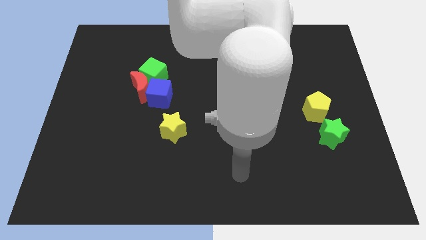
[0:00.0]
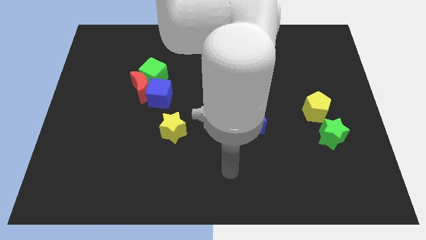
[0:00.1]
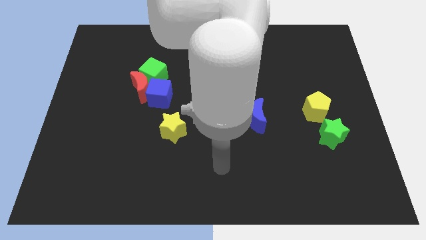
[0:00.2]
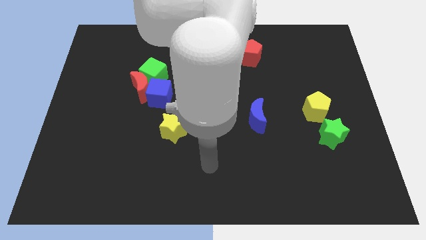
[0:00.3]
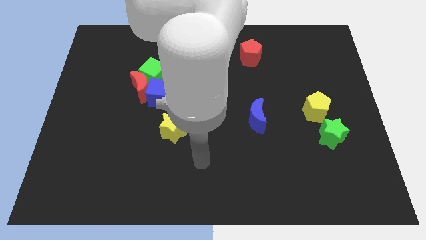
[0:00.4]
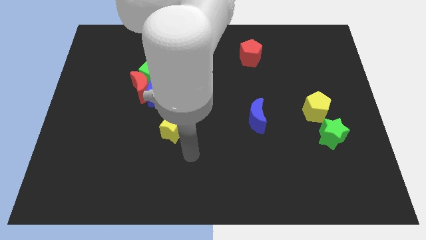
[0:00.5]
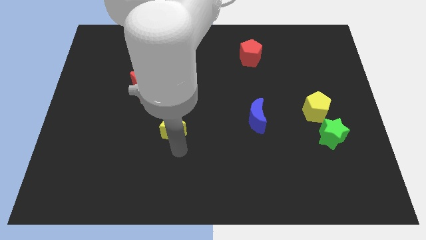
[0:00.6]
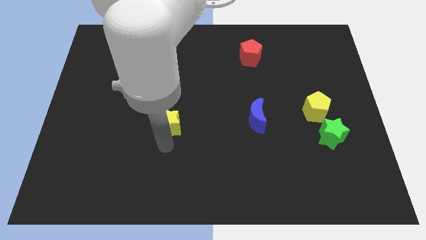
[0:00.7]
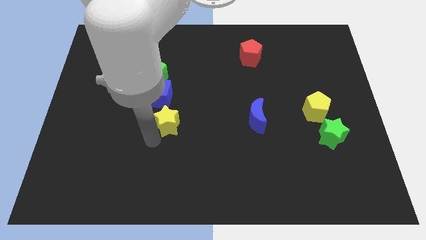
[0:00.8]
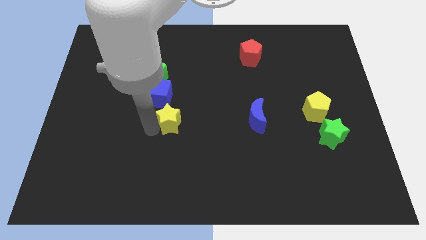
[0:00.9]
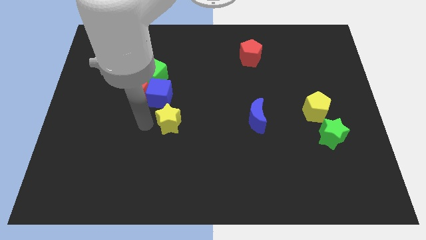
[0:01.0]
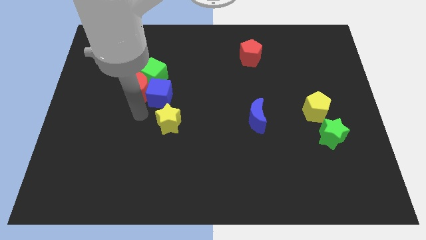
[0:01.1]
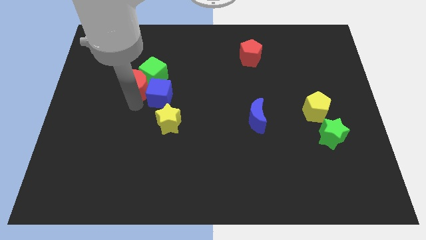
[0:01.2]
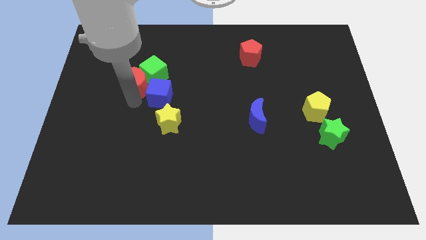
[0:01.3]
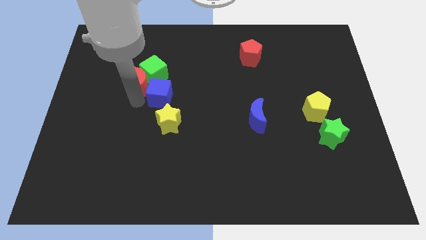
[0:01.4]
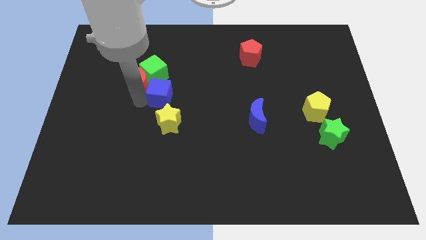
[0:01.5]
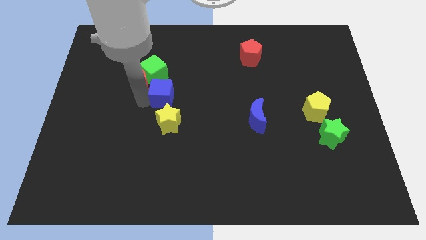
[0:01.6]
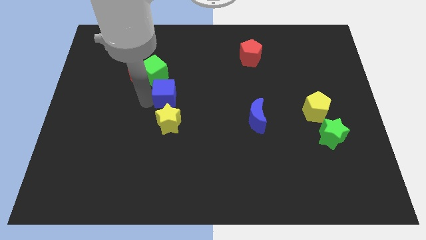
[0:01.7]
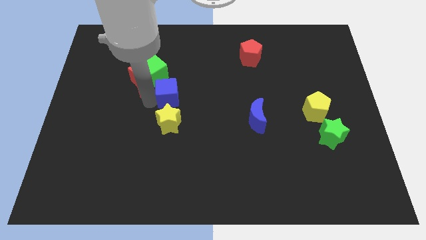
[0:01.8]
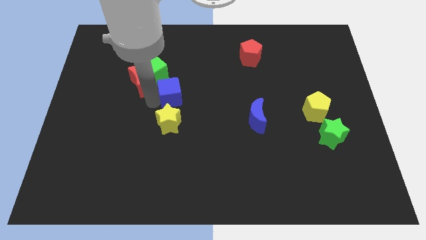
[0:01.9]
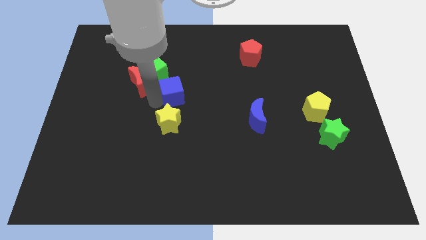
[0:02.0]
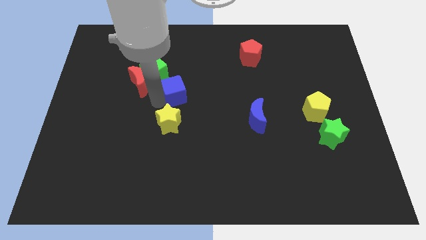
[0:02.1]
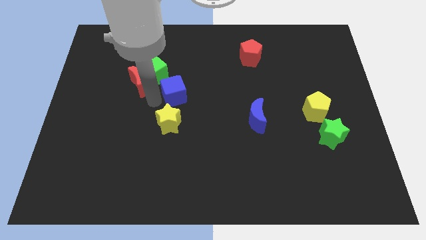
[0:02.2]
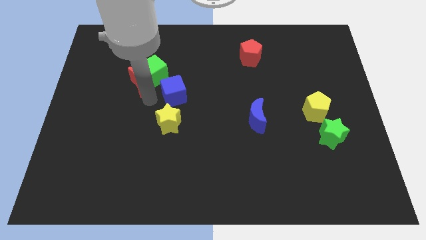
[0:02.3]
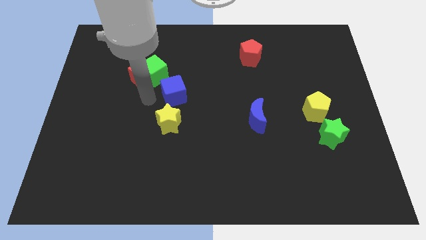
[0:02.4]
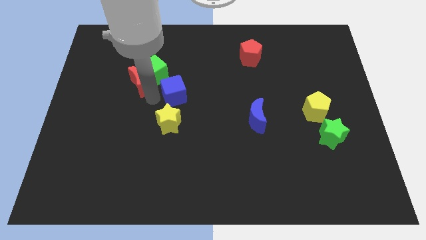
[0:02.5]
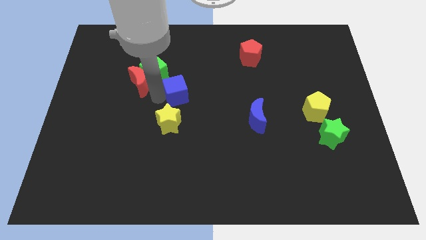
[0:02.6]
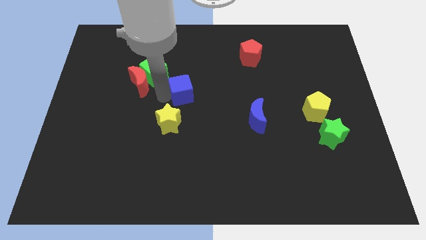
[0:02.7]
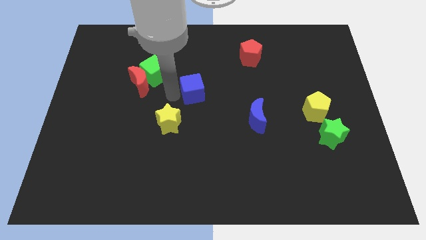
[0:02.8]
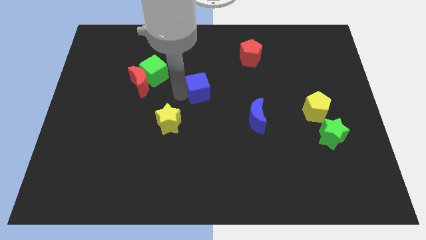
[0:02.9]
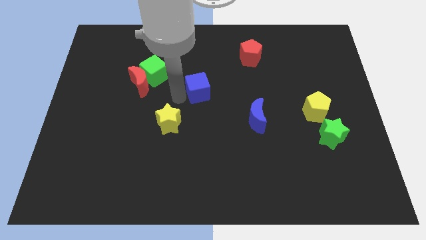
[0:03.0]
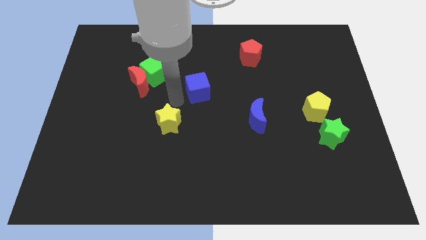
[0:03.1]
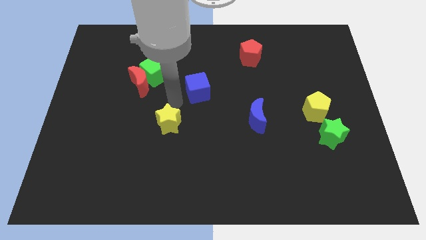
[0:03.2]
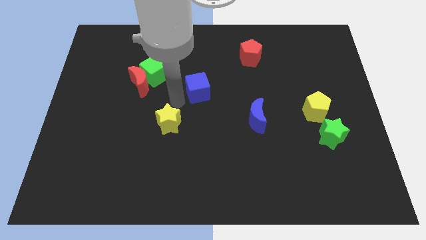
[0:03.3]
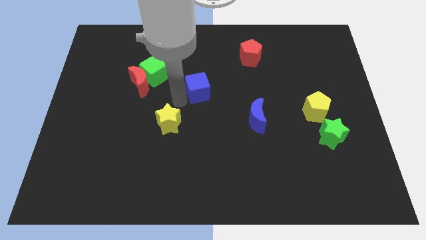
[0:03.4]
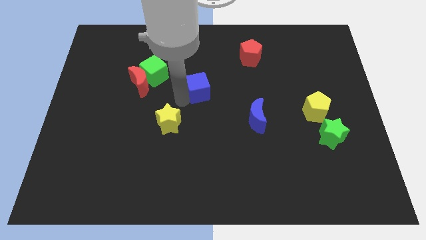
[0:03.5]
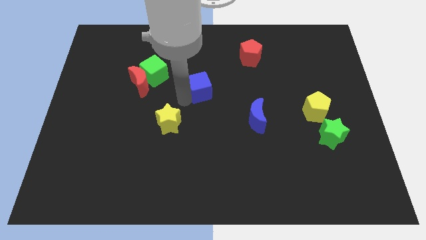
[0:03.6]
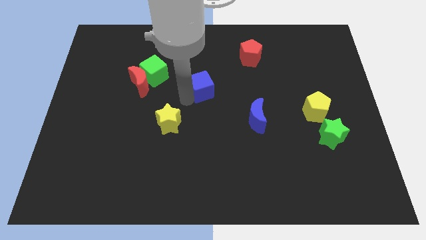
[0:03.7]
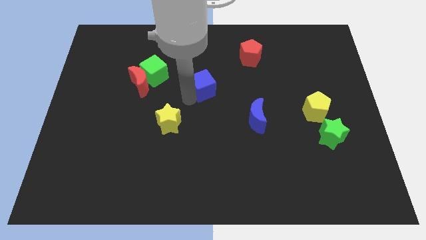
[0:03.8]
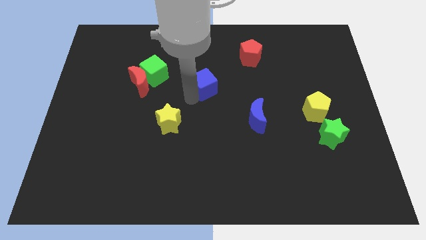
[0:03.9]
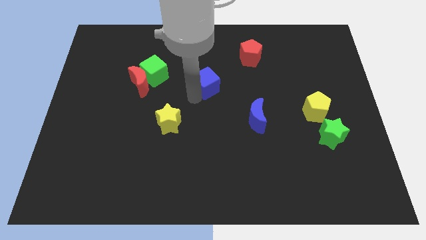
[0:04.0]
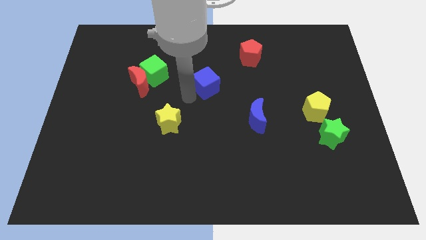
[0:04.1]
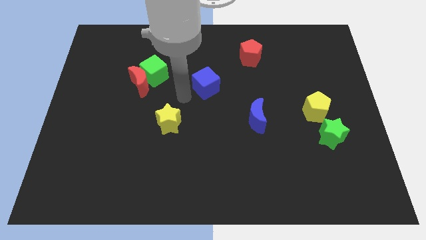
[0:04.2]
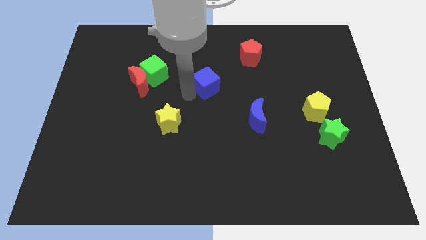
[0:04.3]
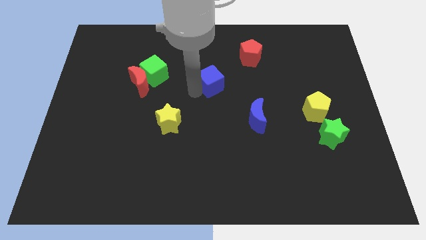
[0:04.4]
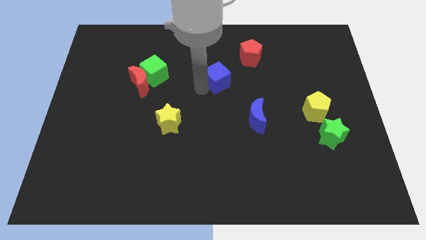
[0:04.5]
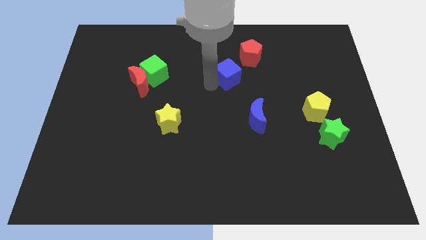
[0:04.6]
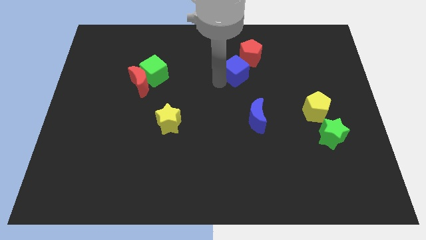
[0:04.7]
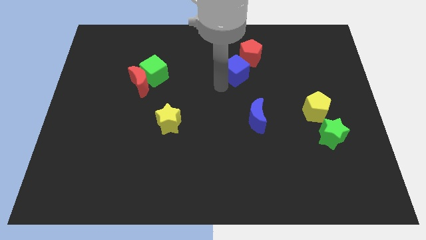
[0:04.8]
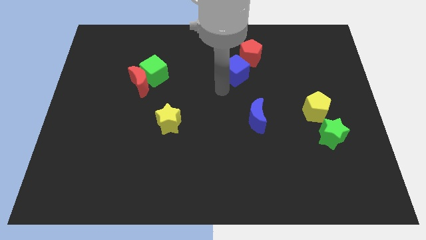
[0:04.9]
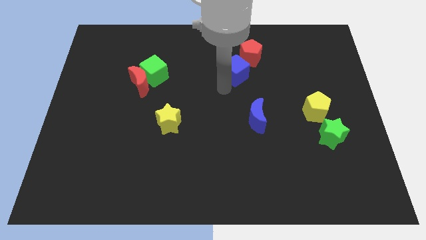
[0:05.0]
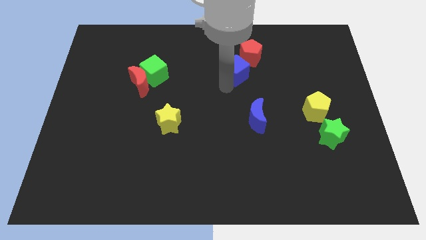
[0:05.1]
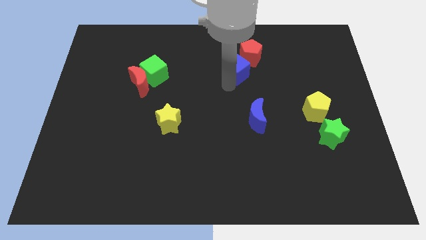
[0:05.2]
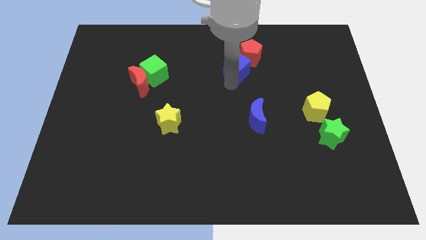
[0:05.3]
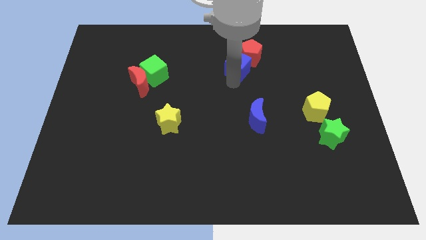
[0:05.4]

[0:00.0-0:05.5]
push the blue cube to the red pentagon

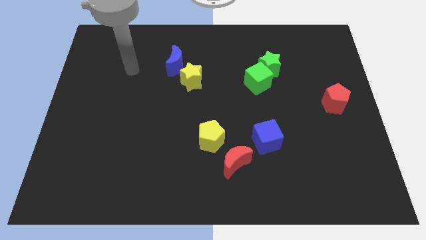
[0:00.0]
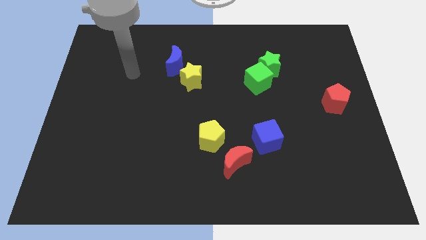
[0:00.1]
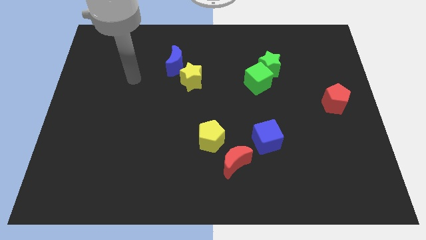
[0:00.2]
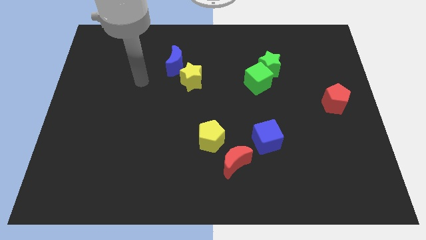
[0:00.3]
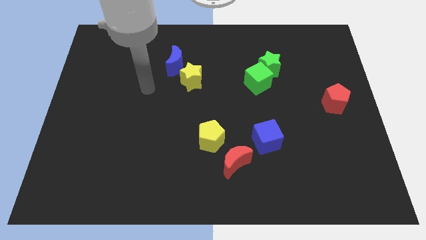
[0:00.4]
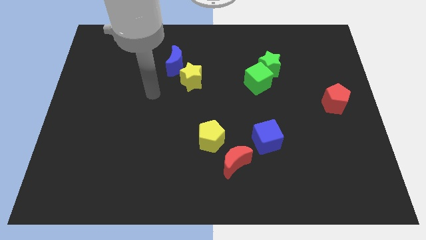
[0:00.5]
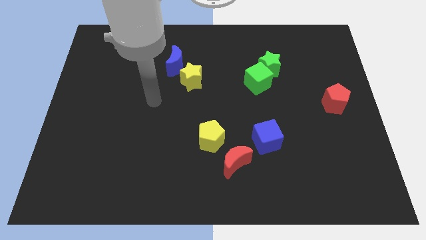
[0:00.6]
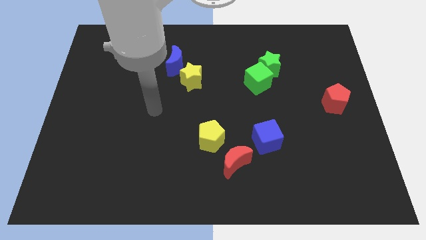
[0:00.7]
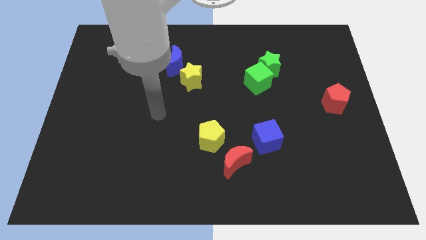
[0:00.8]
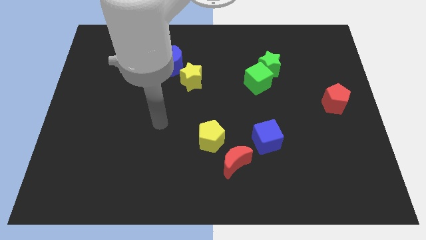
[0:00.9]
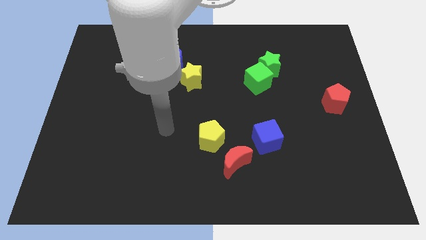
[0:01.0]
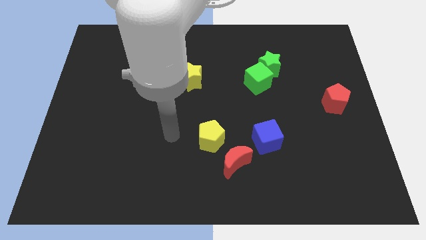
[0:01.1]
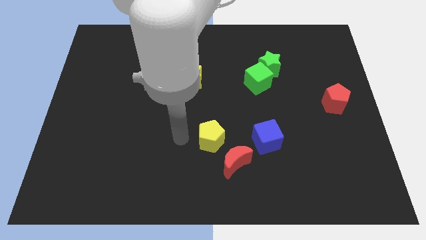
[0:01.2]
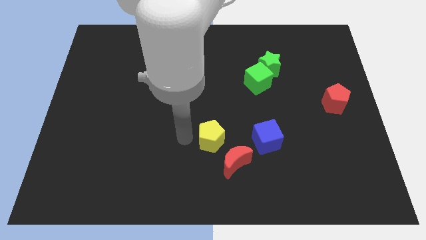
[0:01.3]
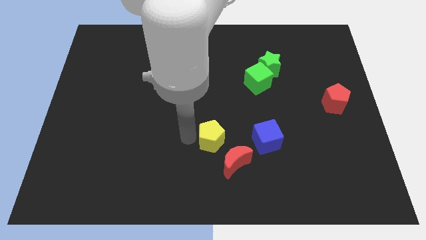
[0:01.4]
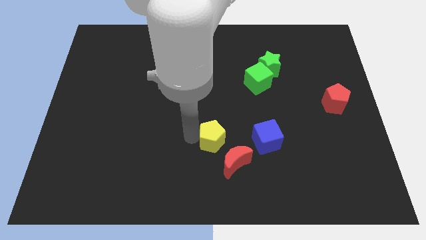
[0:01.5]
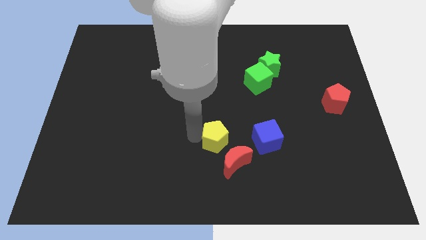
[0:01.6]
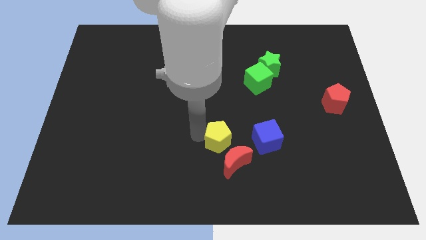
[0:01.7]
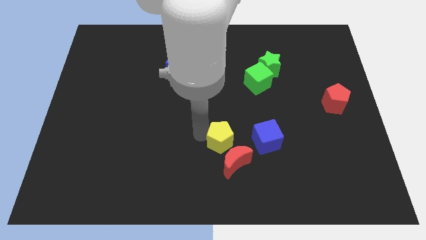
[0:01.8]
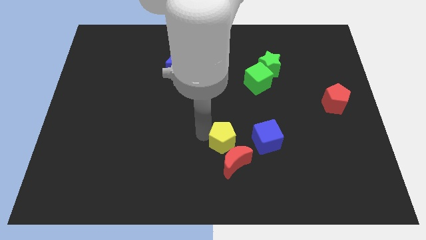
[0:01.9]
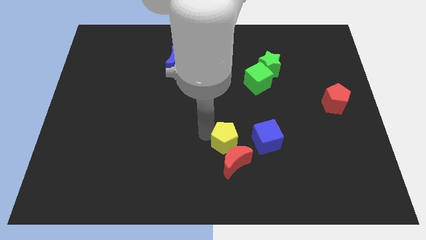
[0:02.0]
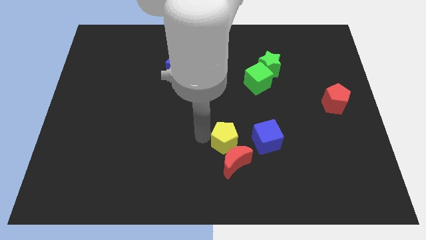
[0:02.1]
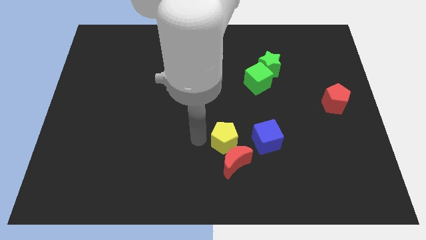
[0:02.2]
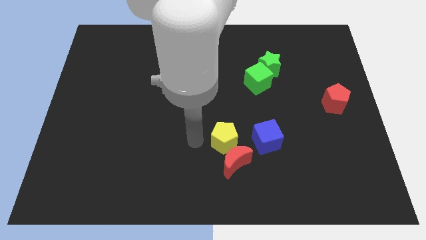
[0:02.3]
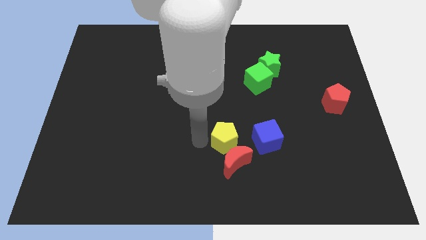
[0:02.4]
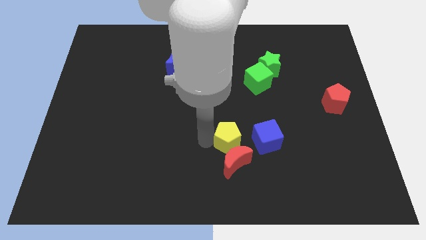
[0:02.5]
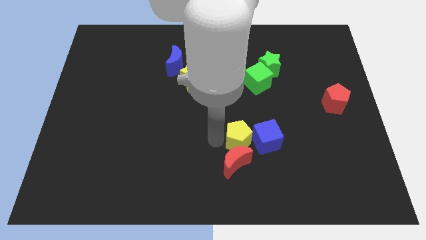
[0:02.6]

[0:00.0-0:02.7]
slide the yellow pentagon next to the blue cube
